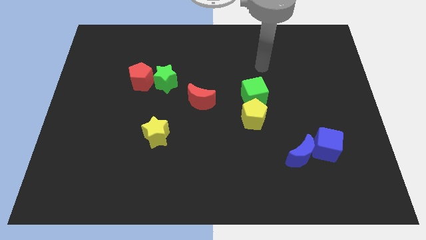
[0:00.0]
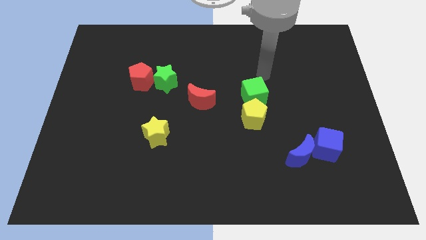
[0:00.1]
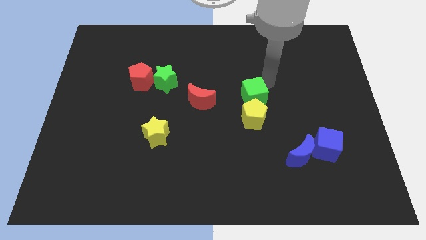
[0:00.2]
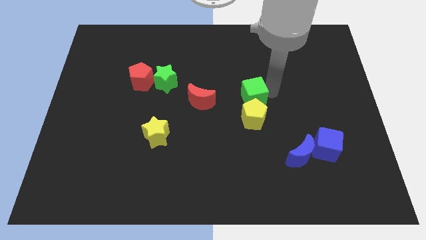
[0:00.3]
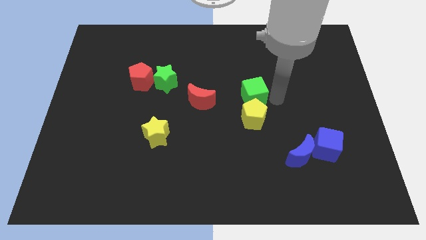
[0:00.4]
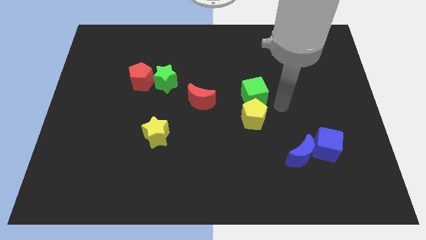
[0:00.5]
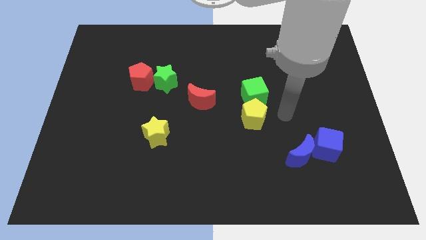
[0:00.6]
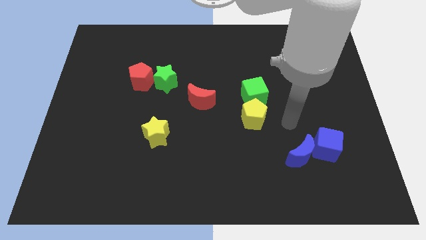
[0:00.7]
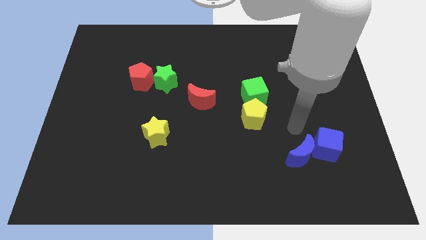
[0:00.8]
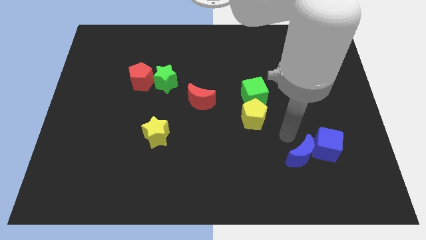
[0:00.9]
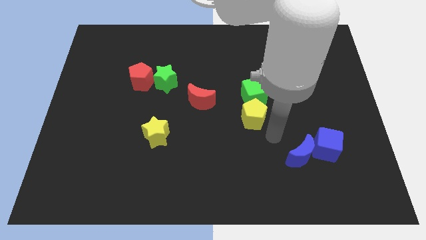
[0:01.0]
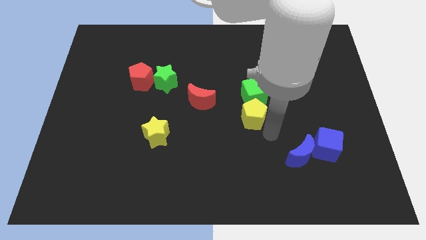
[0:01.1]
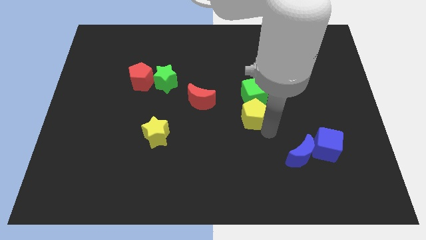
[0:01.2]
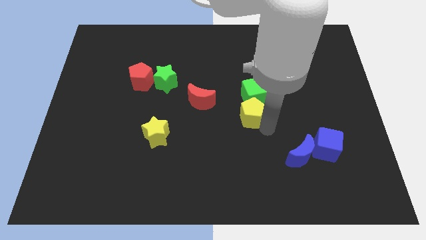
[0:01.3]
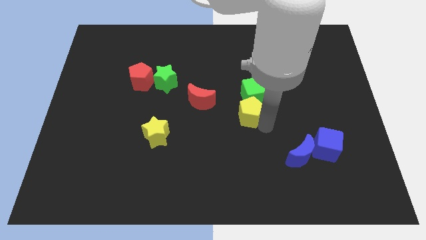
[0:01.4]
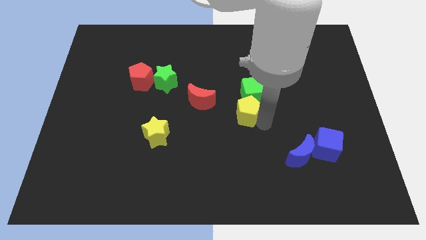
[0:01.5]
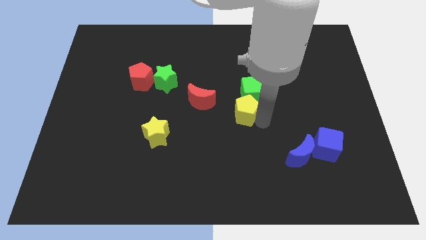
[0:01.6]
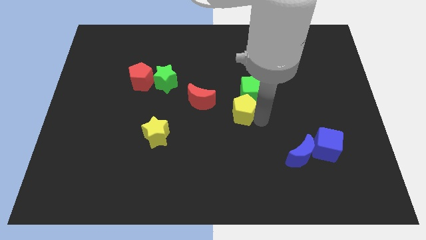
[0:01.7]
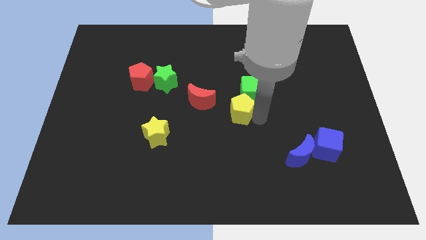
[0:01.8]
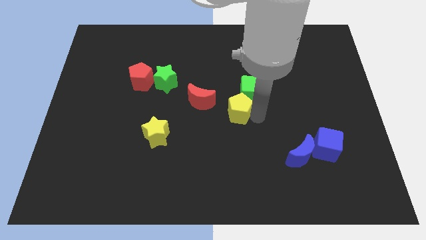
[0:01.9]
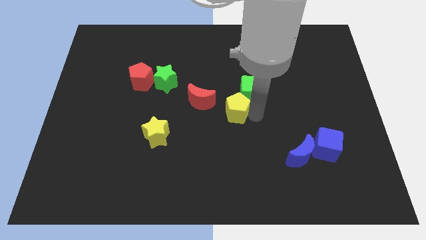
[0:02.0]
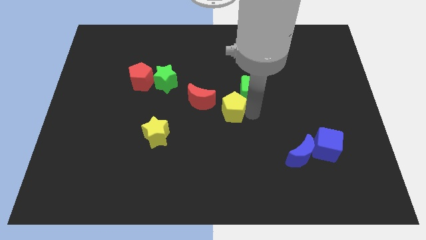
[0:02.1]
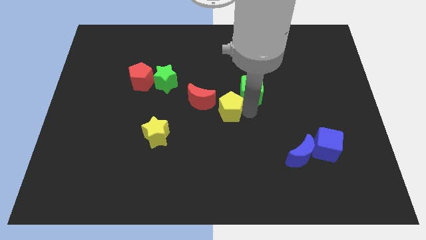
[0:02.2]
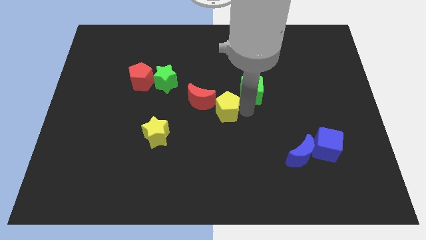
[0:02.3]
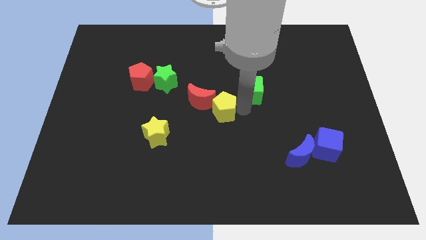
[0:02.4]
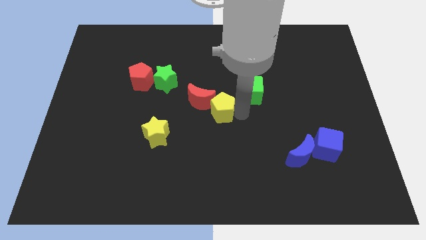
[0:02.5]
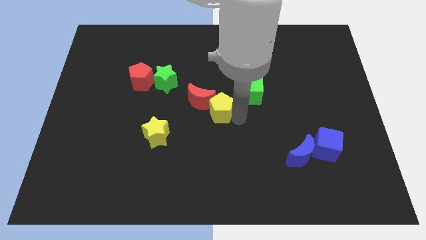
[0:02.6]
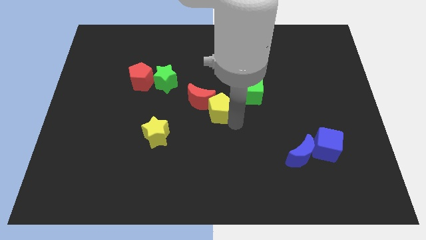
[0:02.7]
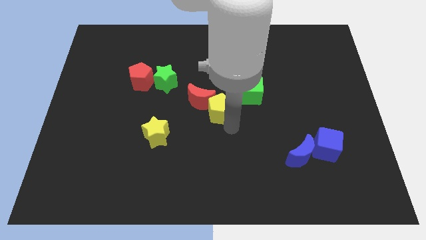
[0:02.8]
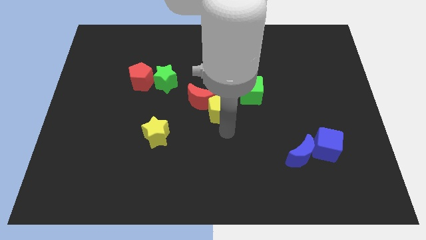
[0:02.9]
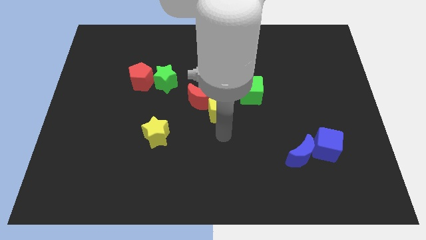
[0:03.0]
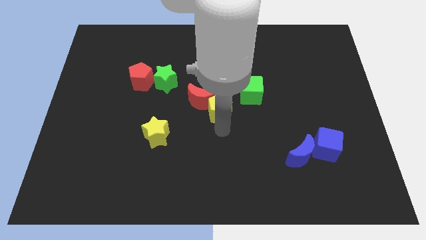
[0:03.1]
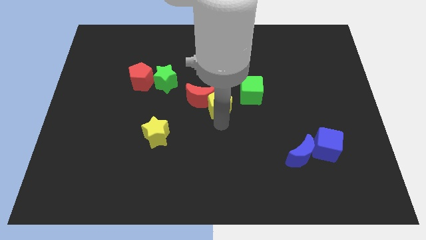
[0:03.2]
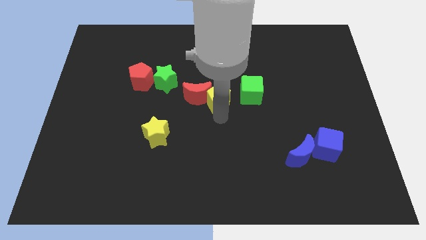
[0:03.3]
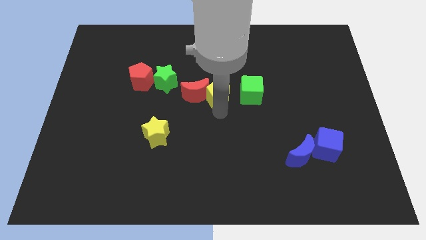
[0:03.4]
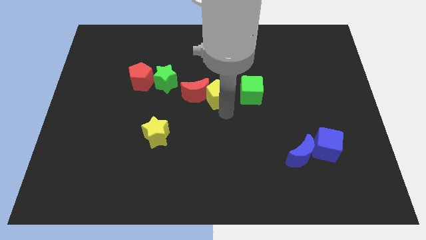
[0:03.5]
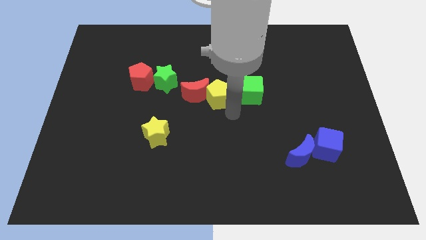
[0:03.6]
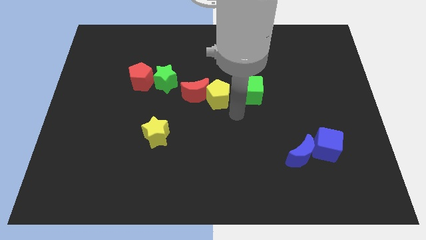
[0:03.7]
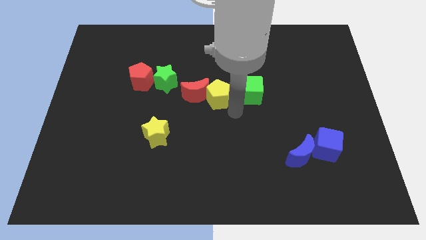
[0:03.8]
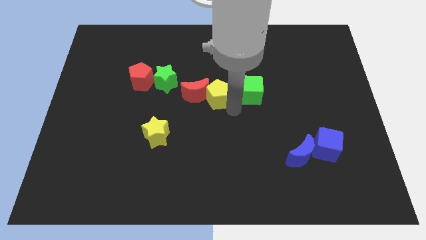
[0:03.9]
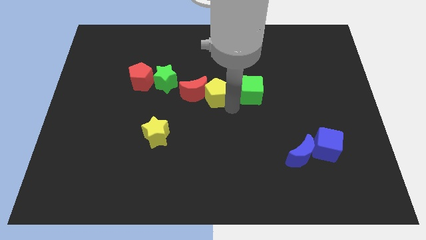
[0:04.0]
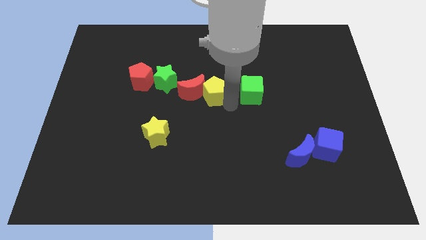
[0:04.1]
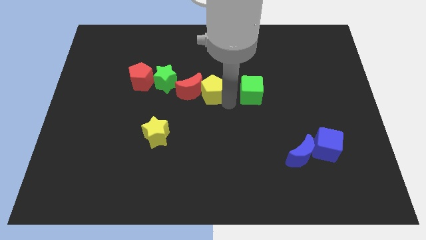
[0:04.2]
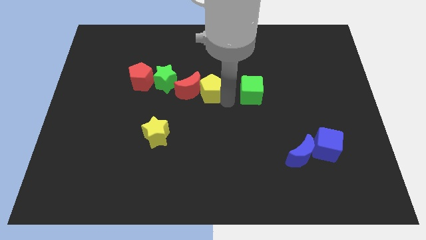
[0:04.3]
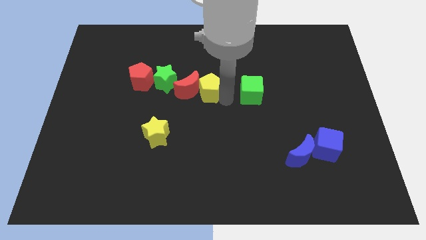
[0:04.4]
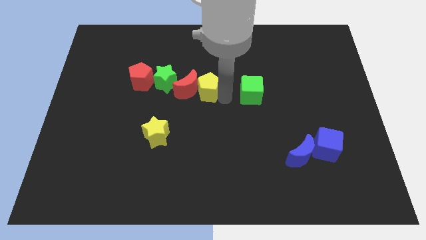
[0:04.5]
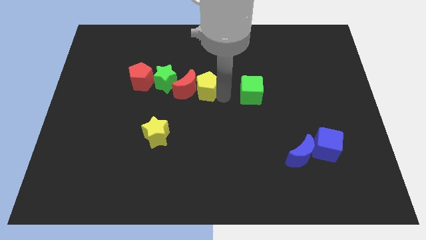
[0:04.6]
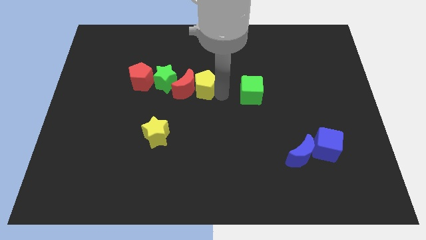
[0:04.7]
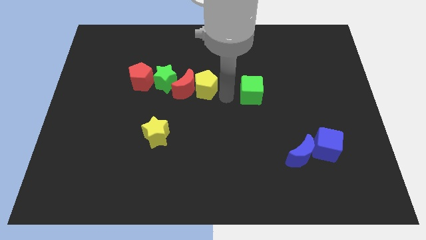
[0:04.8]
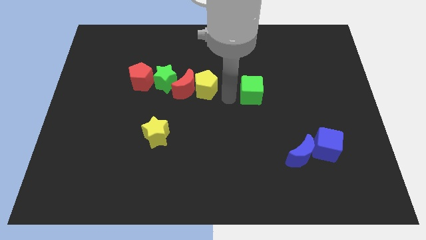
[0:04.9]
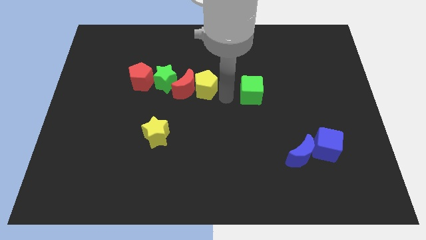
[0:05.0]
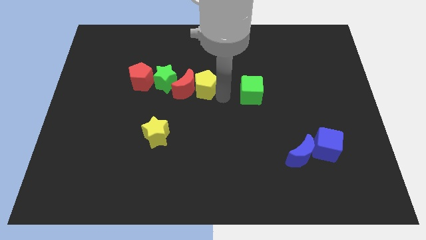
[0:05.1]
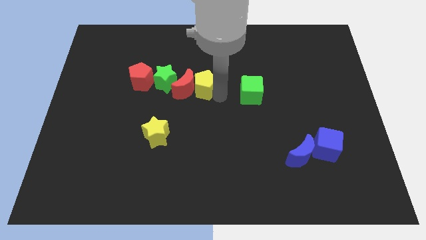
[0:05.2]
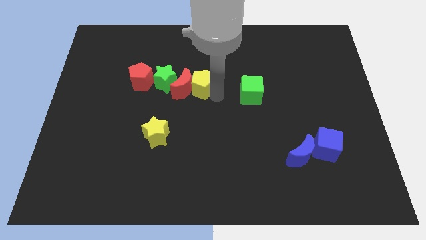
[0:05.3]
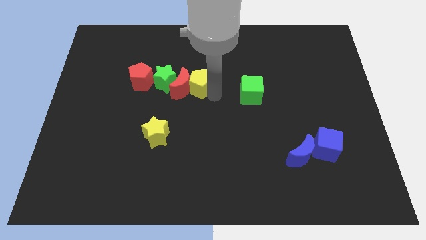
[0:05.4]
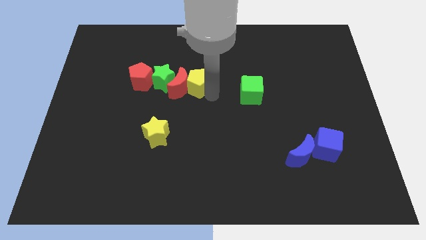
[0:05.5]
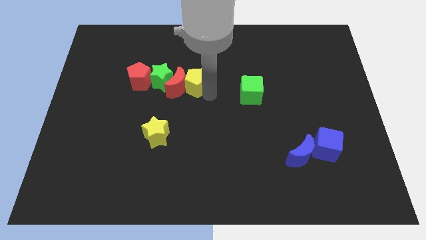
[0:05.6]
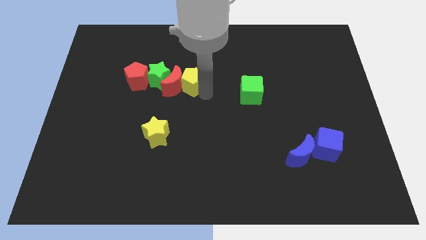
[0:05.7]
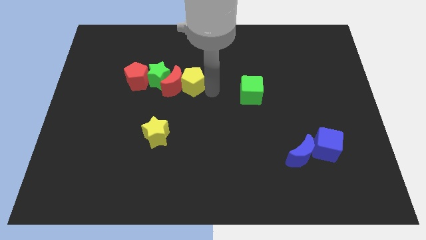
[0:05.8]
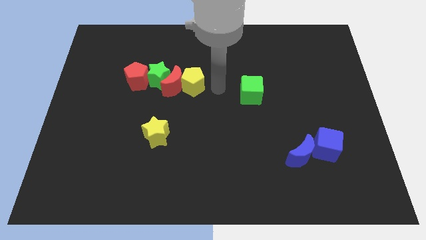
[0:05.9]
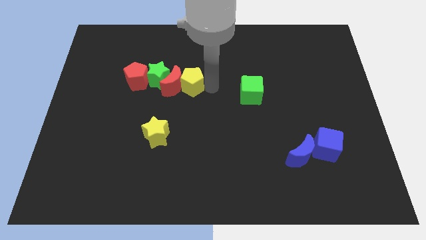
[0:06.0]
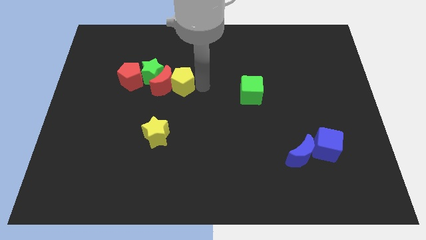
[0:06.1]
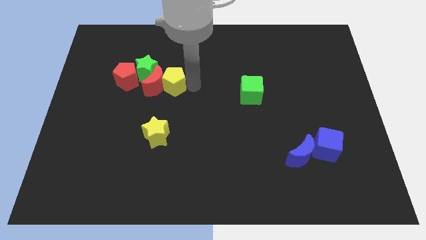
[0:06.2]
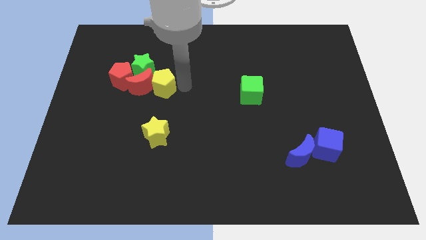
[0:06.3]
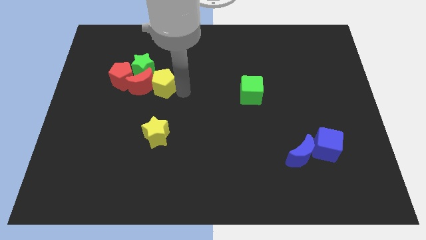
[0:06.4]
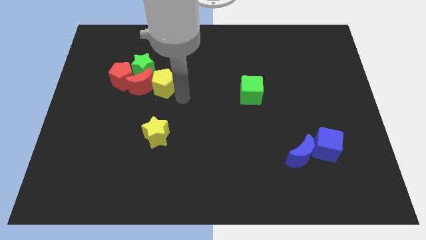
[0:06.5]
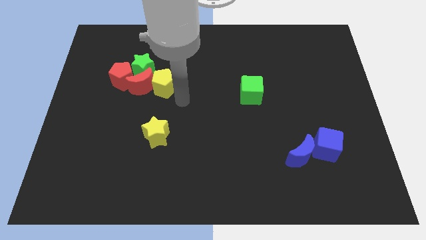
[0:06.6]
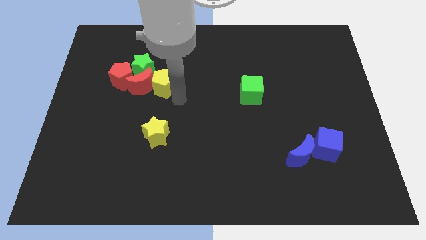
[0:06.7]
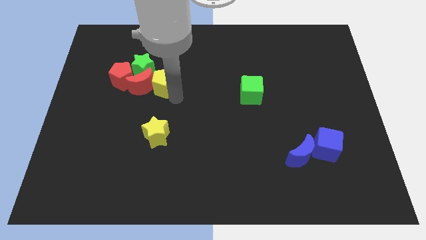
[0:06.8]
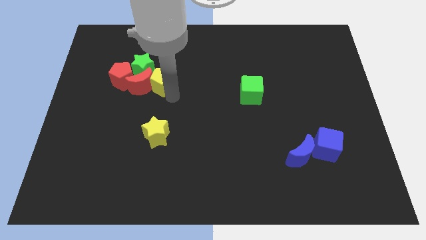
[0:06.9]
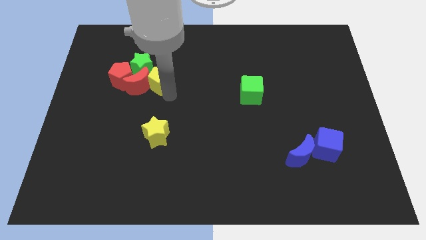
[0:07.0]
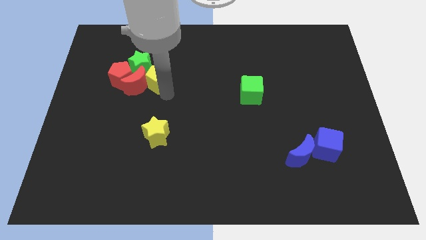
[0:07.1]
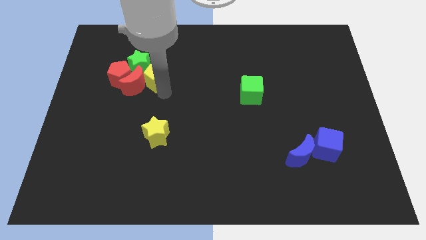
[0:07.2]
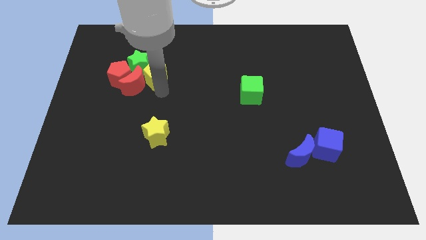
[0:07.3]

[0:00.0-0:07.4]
push the yellow pentagon to the green star

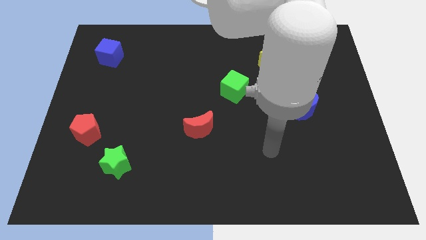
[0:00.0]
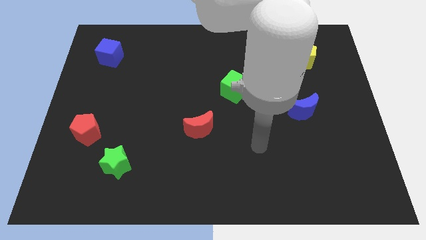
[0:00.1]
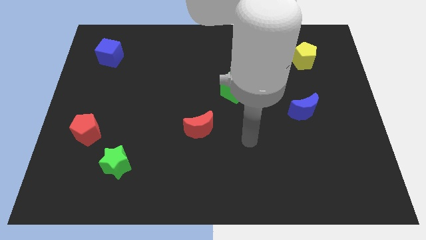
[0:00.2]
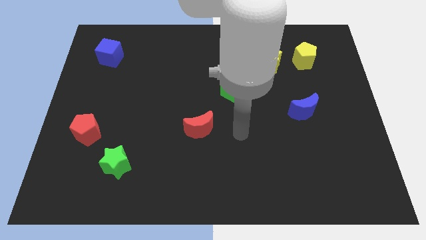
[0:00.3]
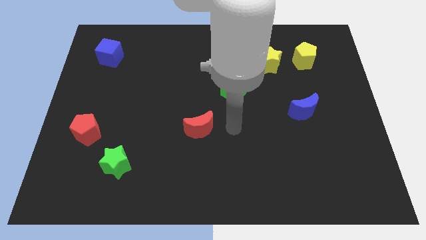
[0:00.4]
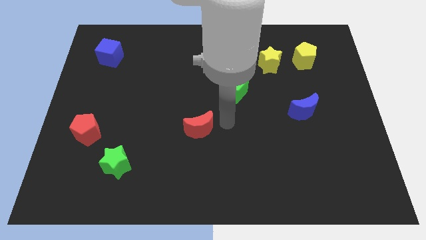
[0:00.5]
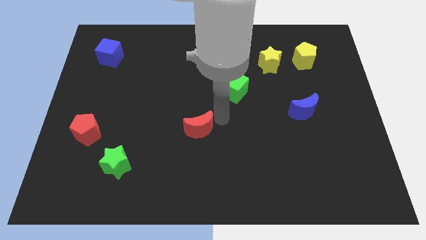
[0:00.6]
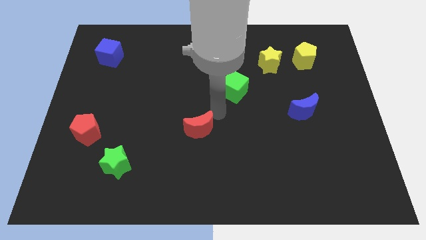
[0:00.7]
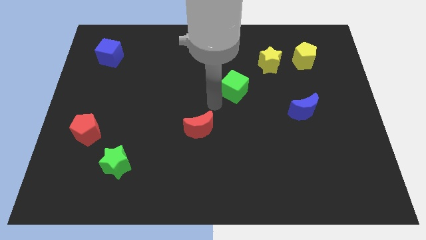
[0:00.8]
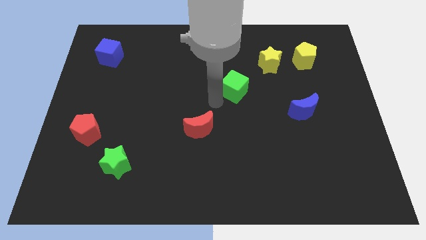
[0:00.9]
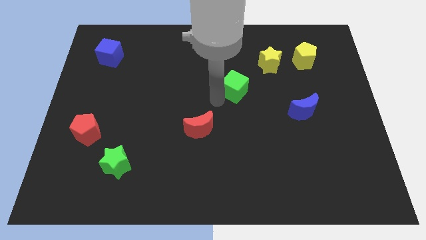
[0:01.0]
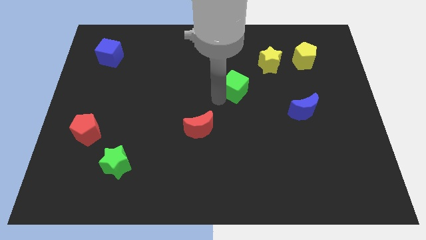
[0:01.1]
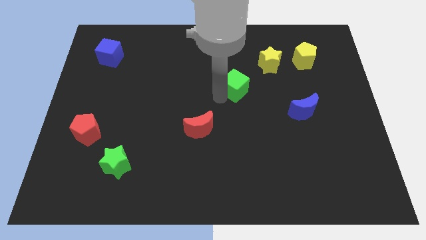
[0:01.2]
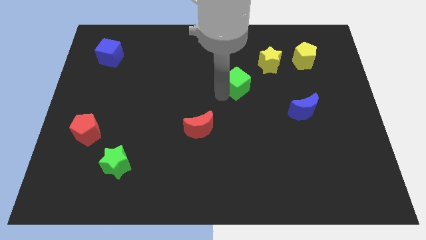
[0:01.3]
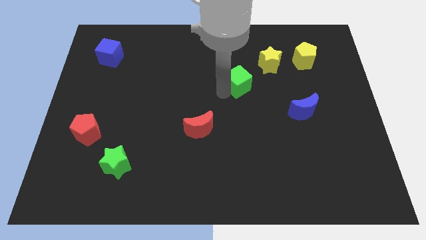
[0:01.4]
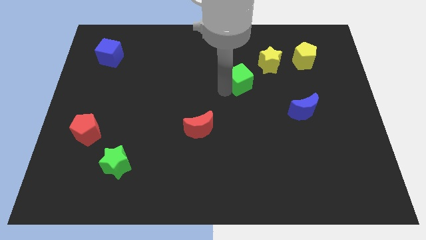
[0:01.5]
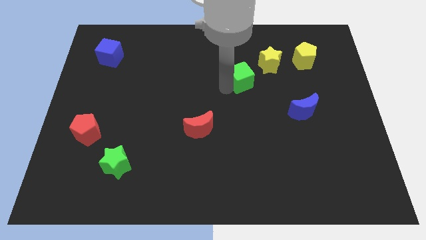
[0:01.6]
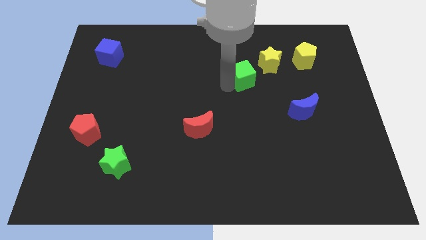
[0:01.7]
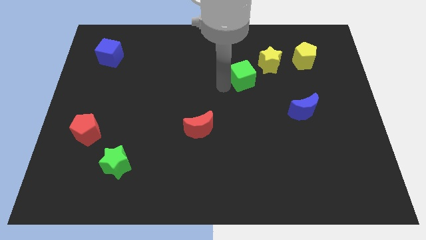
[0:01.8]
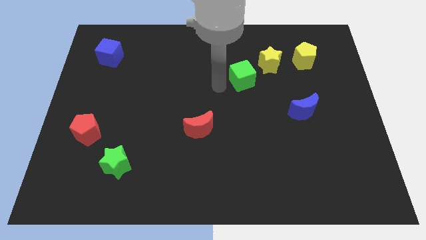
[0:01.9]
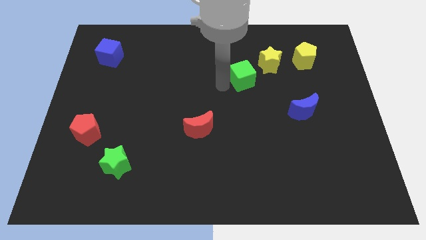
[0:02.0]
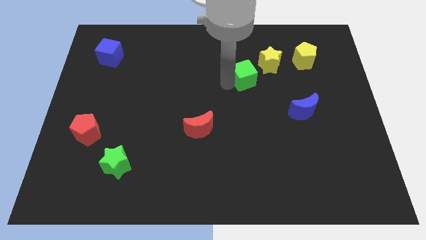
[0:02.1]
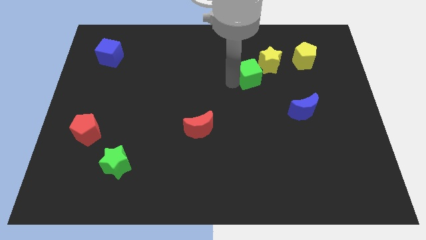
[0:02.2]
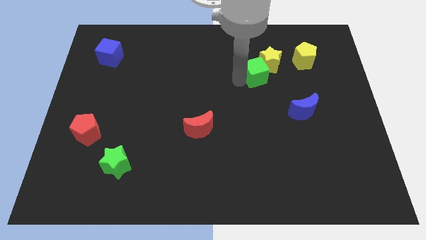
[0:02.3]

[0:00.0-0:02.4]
put the green cube close to the yellow star
